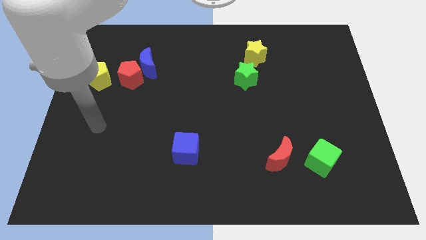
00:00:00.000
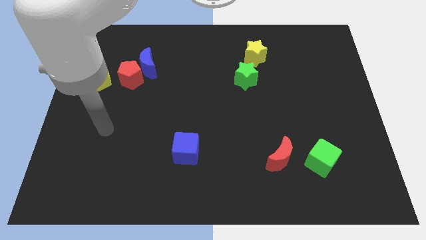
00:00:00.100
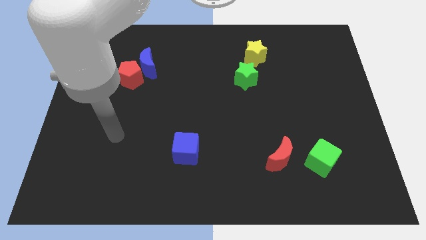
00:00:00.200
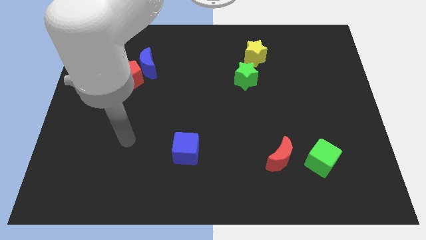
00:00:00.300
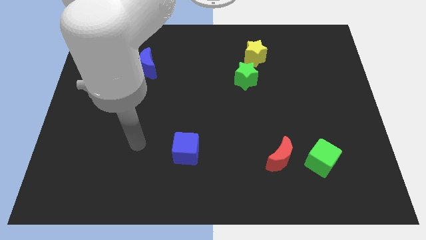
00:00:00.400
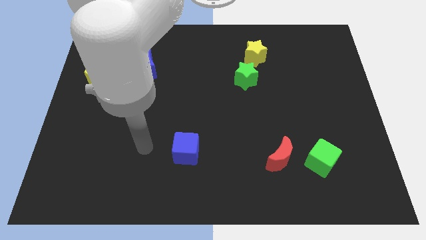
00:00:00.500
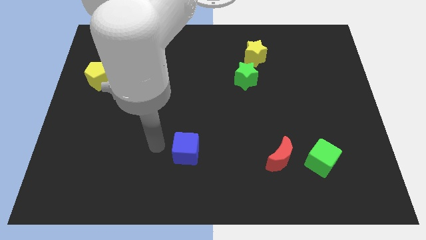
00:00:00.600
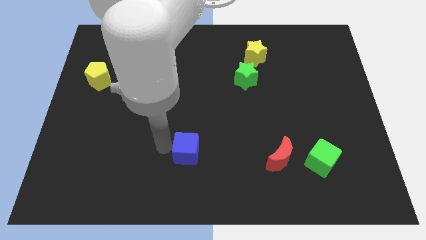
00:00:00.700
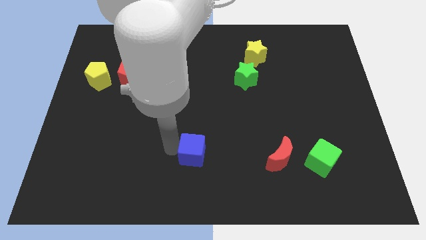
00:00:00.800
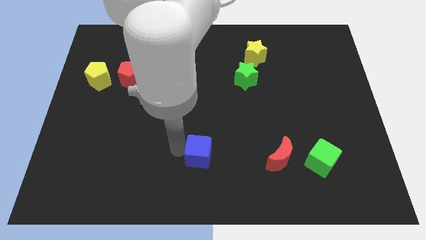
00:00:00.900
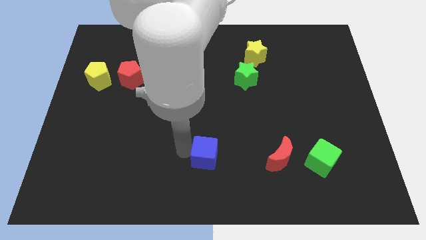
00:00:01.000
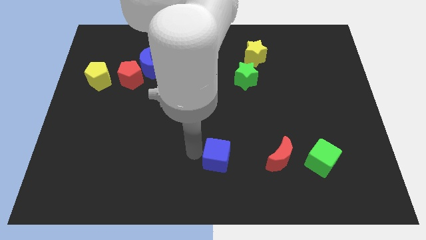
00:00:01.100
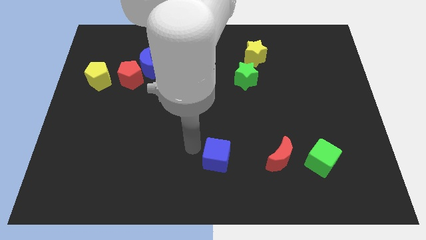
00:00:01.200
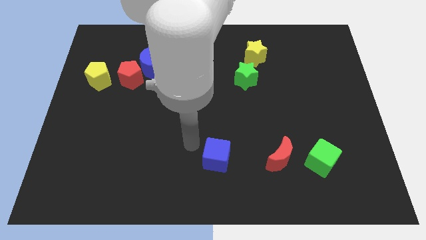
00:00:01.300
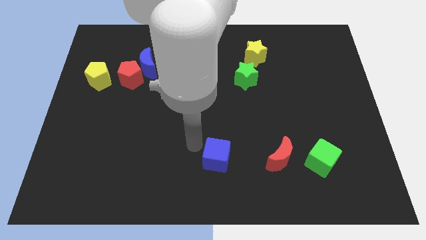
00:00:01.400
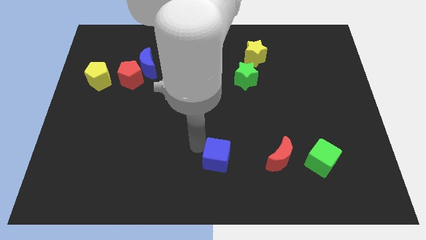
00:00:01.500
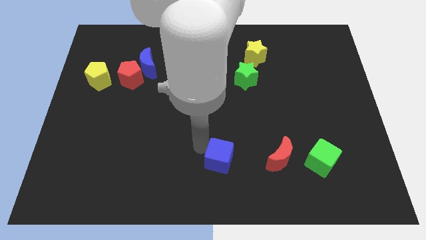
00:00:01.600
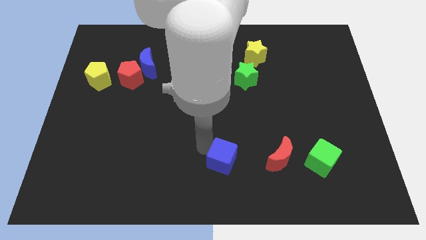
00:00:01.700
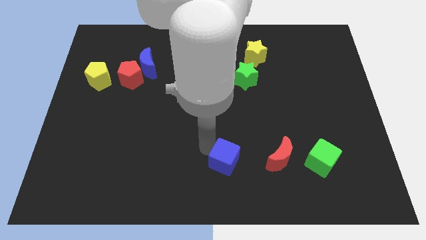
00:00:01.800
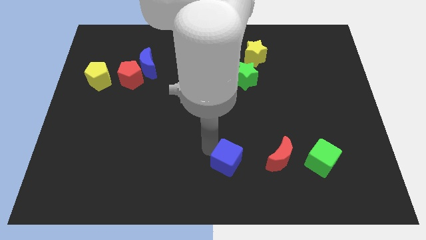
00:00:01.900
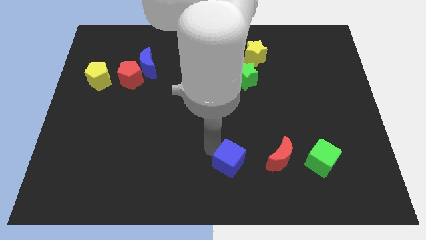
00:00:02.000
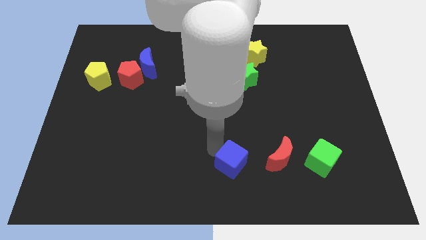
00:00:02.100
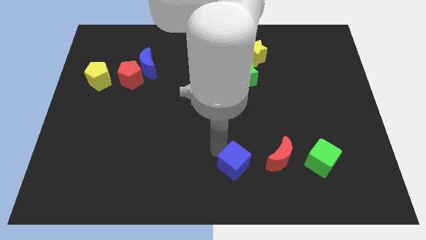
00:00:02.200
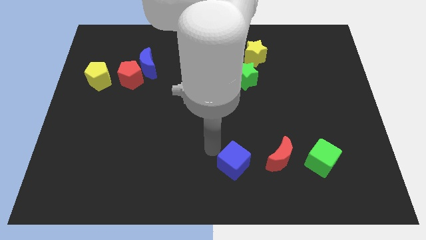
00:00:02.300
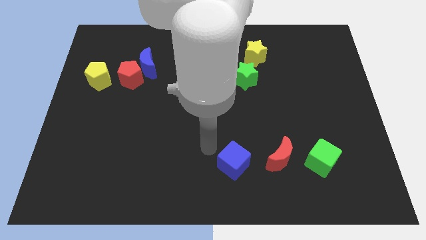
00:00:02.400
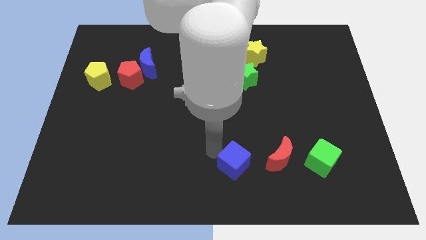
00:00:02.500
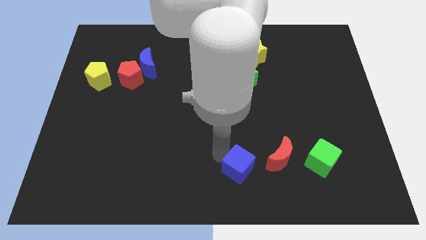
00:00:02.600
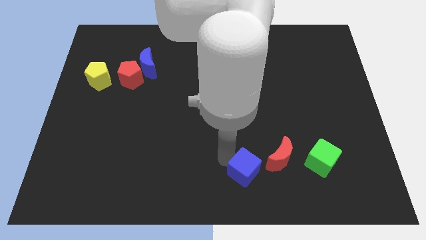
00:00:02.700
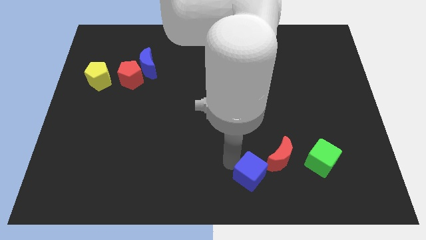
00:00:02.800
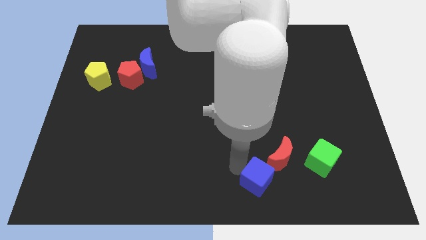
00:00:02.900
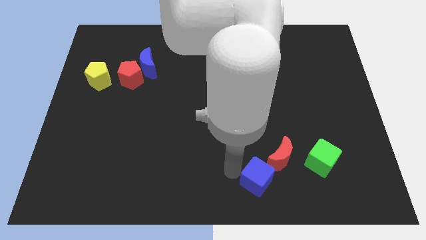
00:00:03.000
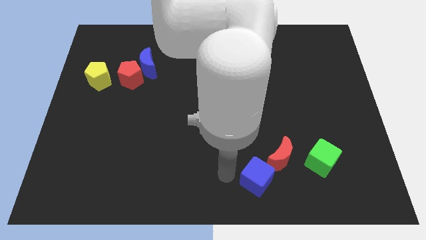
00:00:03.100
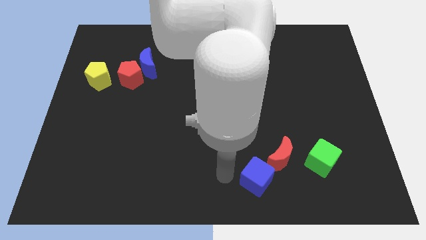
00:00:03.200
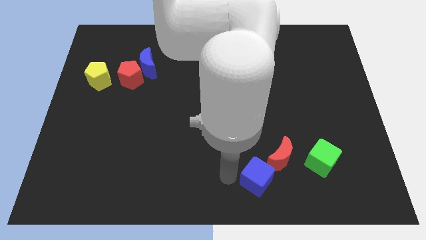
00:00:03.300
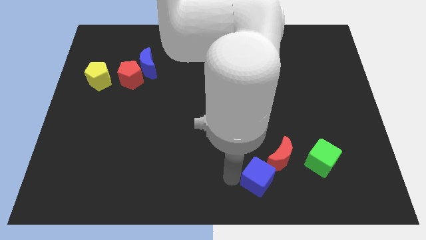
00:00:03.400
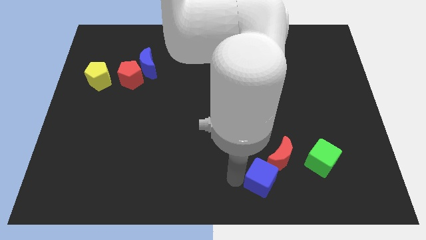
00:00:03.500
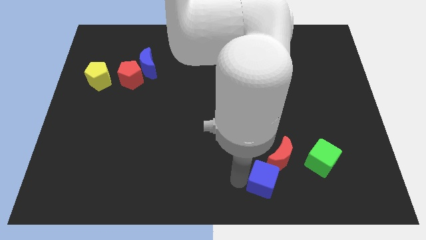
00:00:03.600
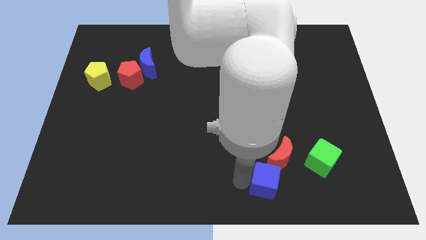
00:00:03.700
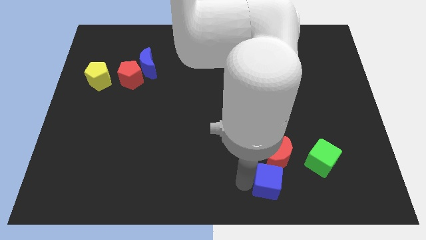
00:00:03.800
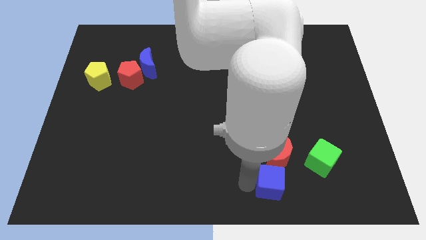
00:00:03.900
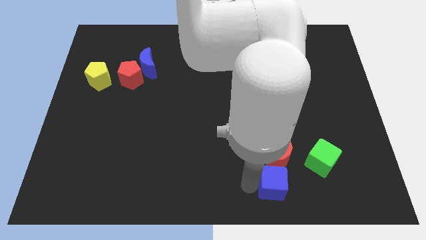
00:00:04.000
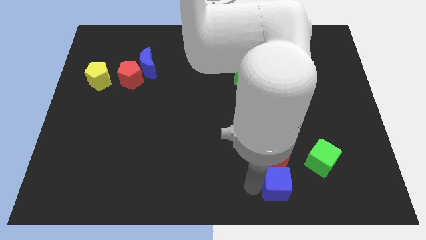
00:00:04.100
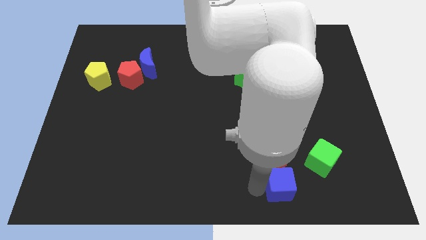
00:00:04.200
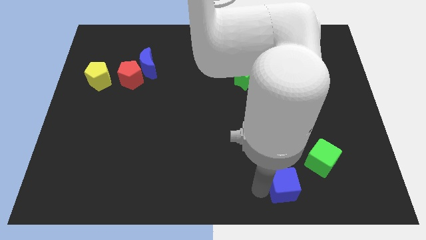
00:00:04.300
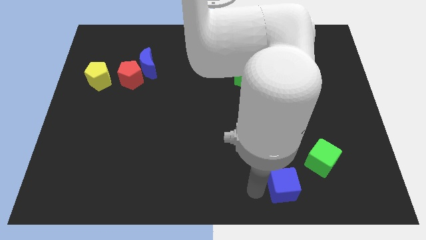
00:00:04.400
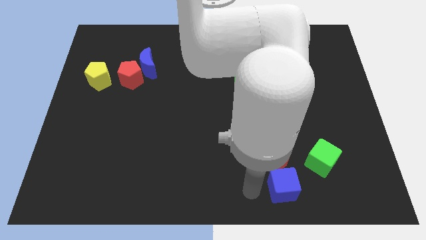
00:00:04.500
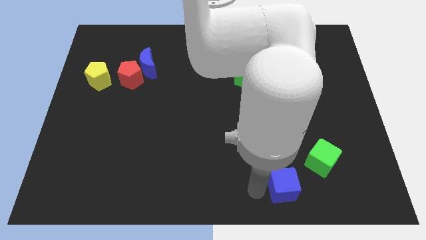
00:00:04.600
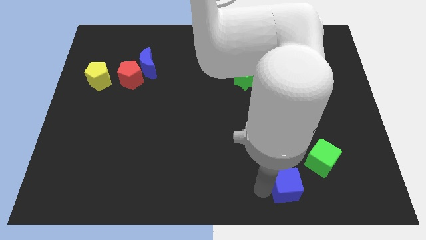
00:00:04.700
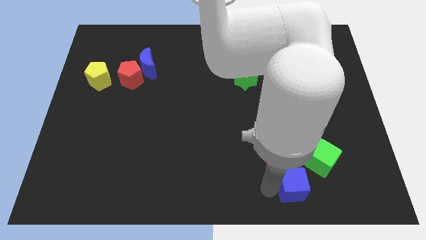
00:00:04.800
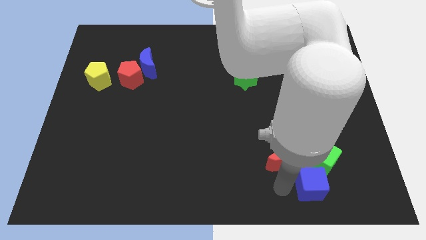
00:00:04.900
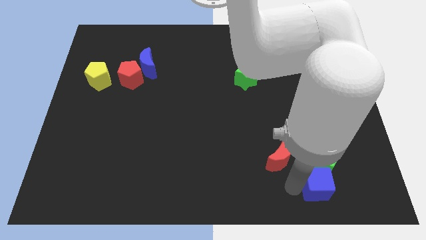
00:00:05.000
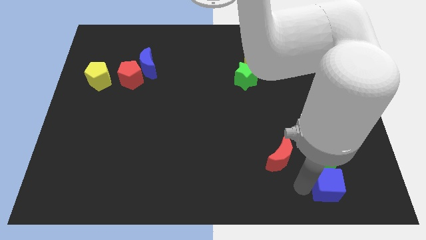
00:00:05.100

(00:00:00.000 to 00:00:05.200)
put the blue cube diagonally down and to the right of the green cube

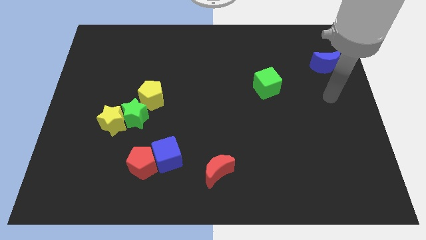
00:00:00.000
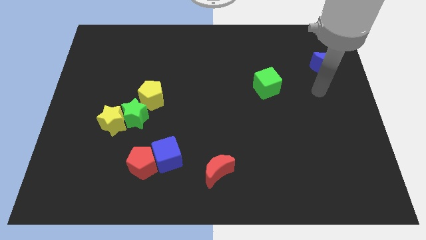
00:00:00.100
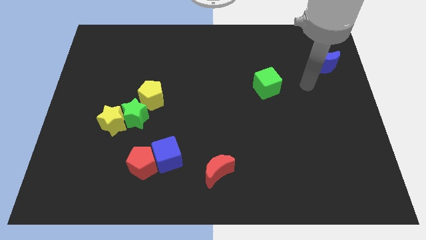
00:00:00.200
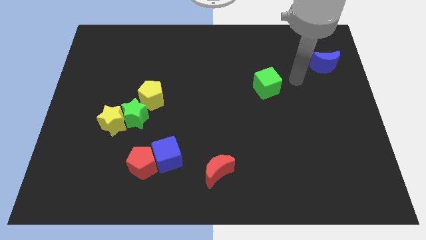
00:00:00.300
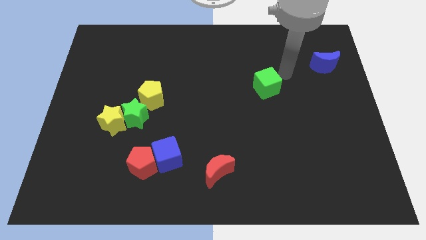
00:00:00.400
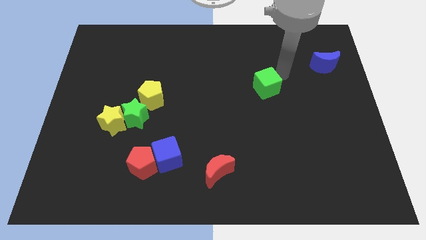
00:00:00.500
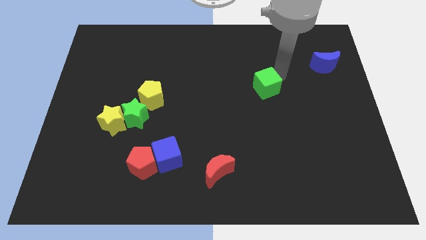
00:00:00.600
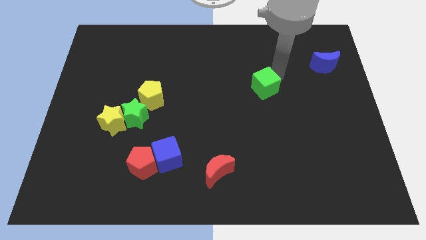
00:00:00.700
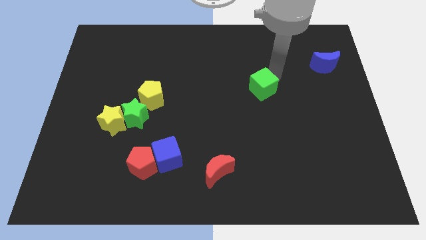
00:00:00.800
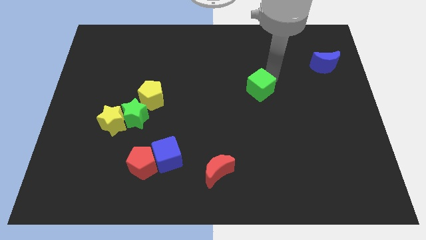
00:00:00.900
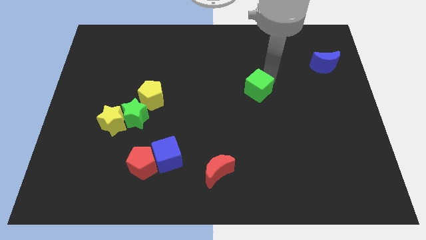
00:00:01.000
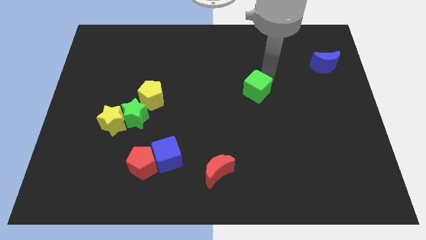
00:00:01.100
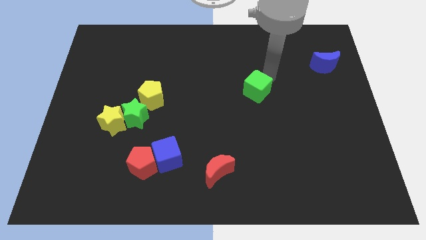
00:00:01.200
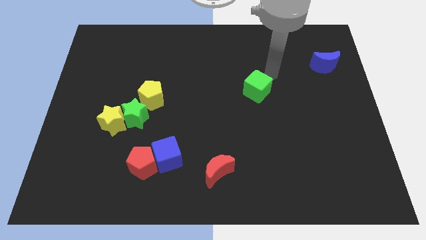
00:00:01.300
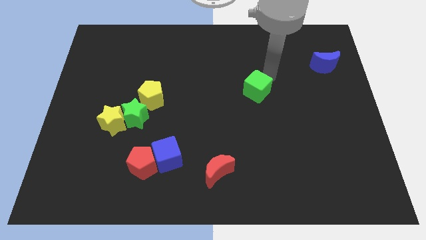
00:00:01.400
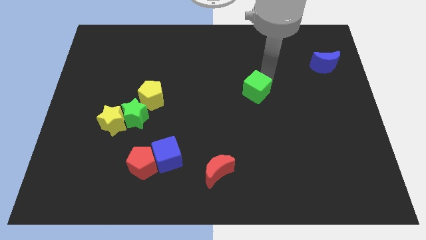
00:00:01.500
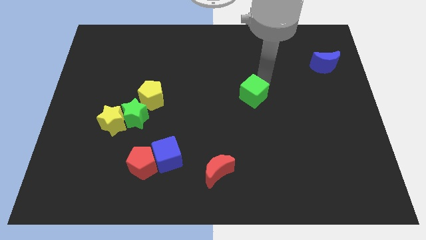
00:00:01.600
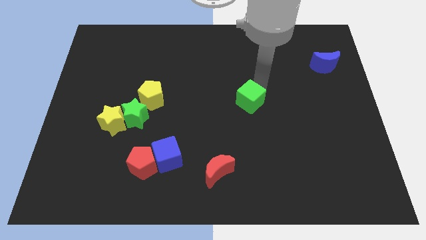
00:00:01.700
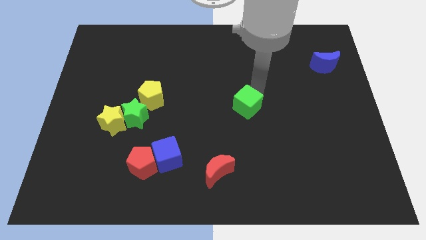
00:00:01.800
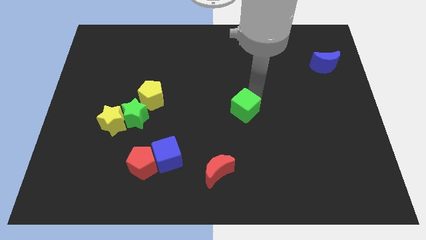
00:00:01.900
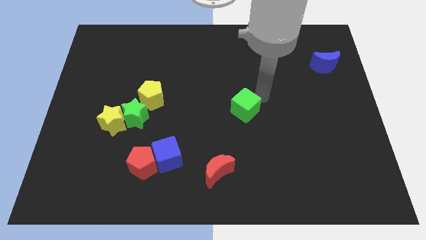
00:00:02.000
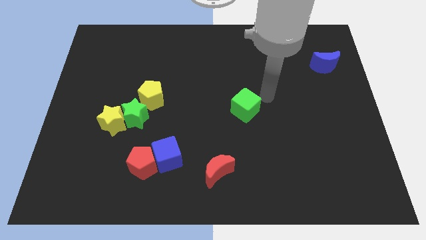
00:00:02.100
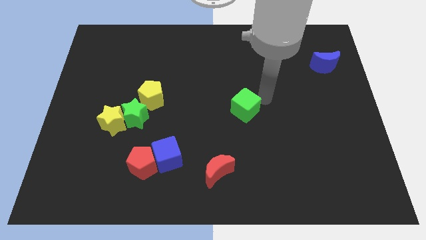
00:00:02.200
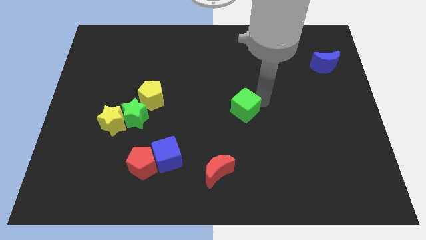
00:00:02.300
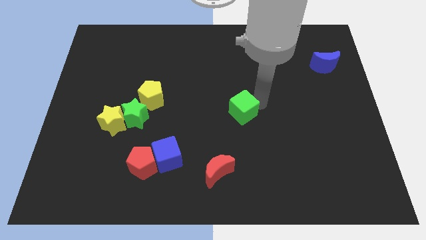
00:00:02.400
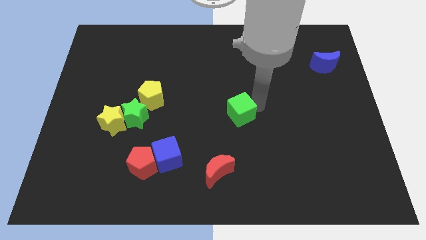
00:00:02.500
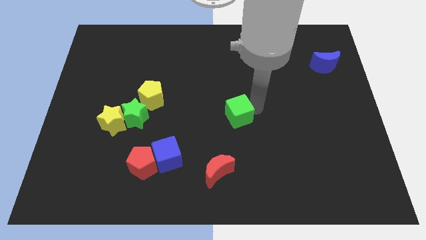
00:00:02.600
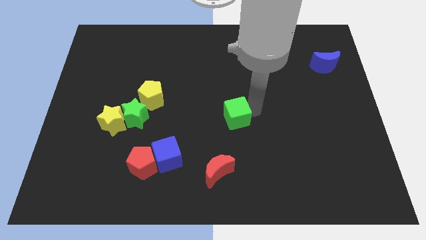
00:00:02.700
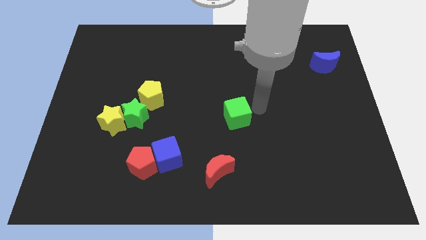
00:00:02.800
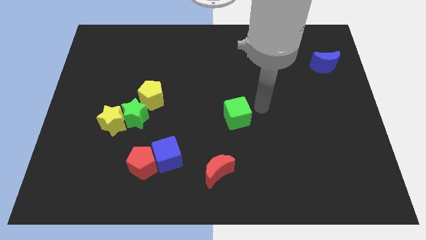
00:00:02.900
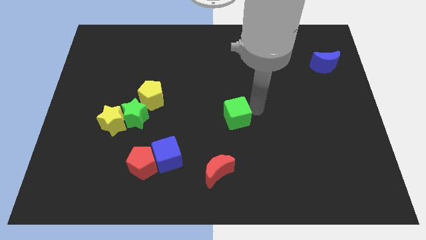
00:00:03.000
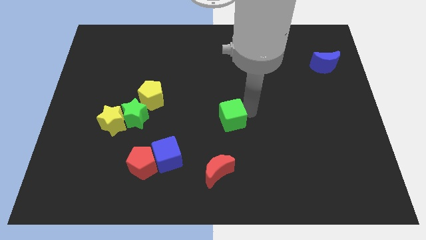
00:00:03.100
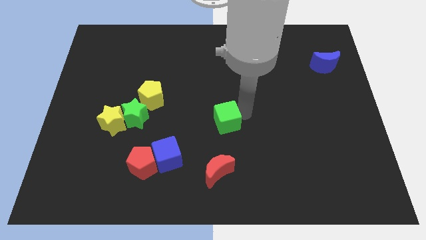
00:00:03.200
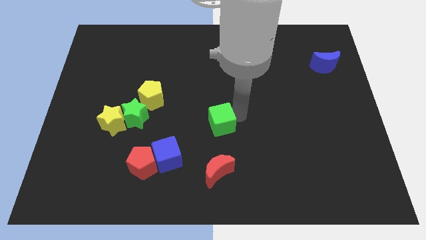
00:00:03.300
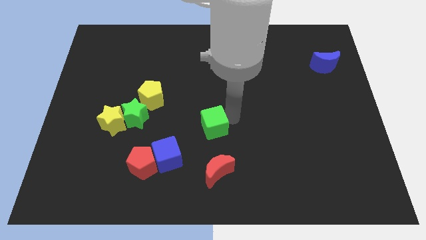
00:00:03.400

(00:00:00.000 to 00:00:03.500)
slide the green cube to the top right of the blue cube
